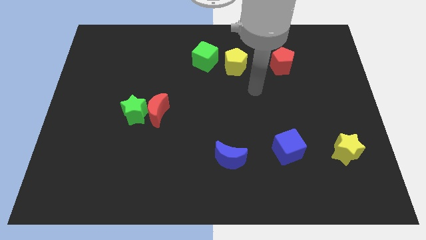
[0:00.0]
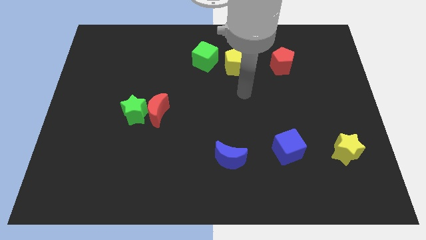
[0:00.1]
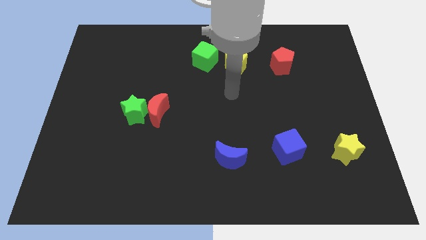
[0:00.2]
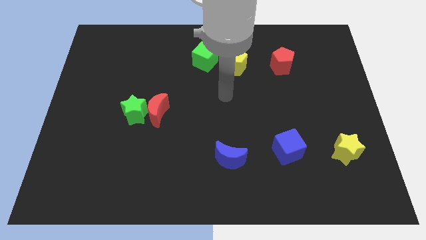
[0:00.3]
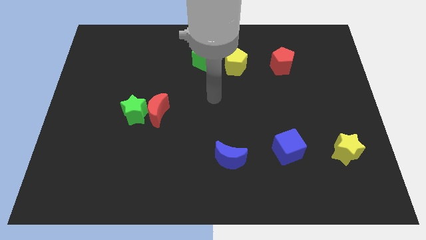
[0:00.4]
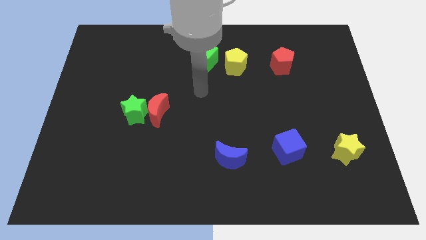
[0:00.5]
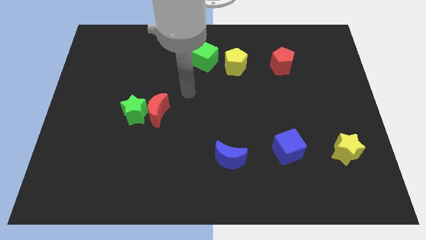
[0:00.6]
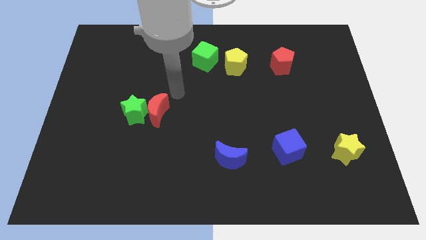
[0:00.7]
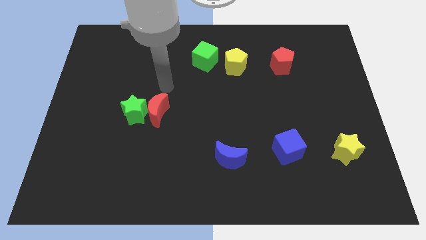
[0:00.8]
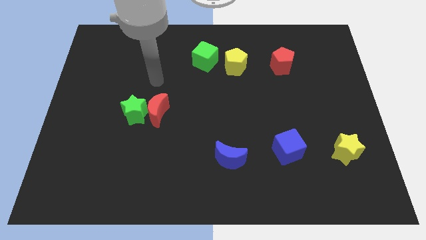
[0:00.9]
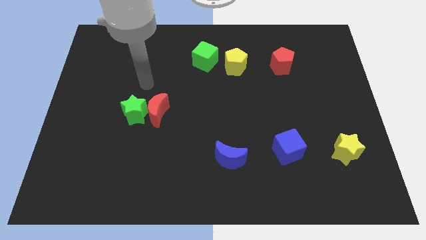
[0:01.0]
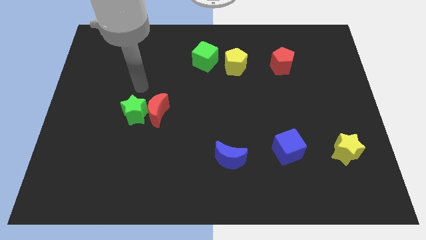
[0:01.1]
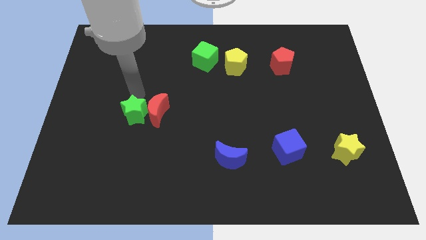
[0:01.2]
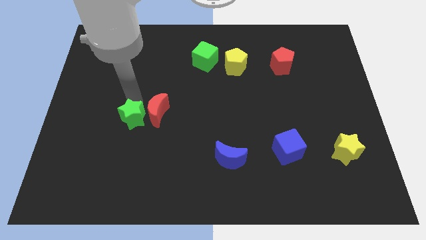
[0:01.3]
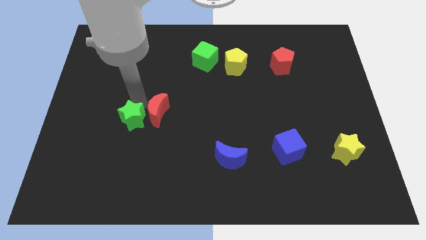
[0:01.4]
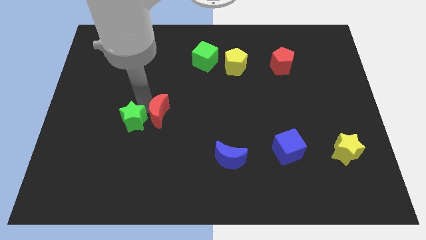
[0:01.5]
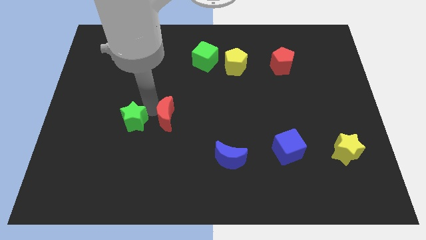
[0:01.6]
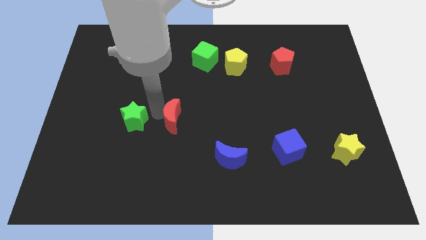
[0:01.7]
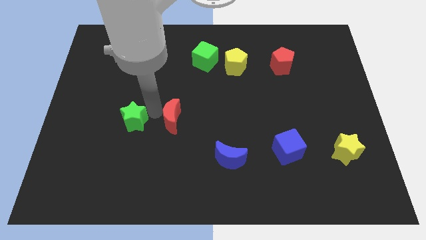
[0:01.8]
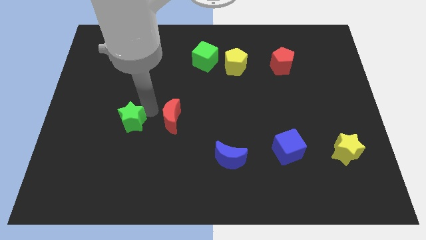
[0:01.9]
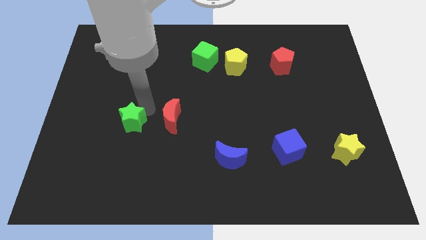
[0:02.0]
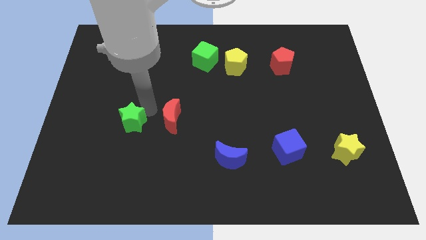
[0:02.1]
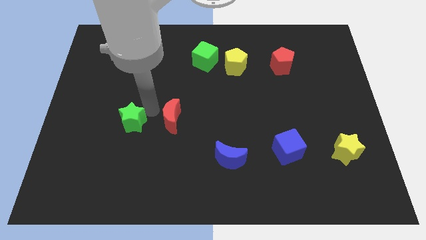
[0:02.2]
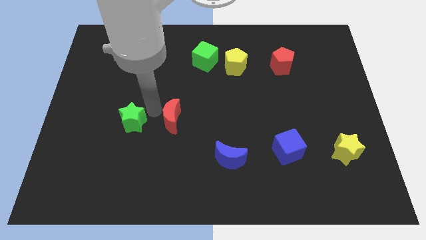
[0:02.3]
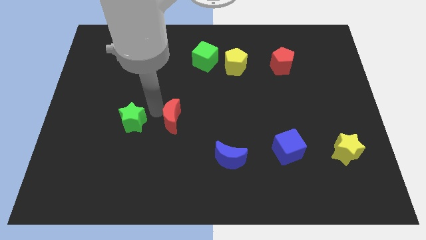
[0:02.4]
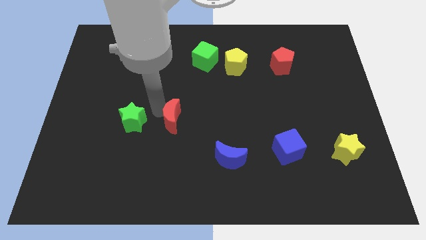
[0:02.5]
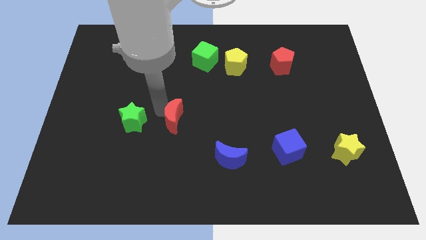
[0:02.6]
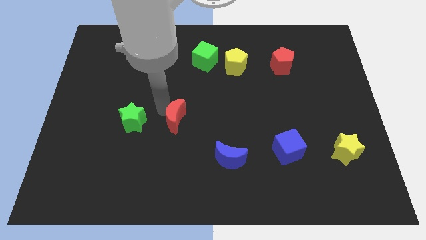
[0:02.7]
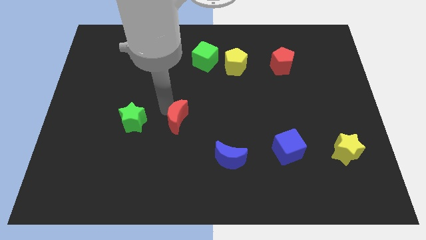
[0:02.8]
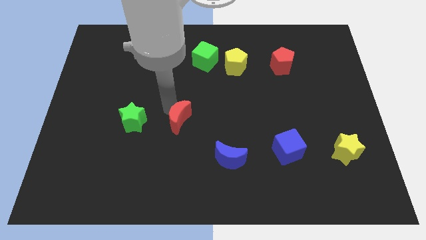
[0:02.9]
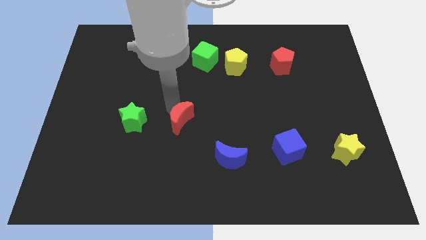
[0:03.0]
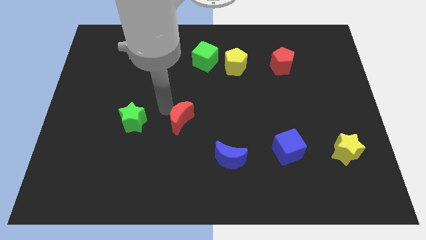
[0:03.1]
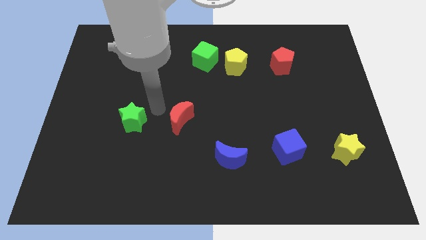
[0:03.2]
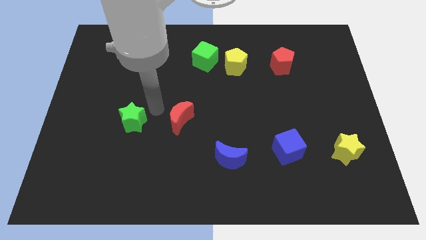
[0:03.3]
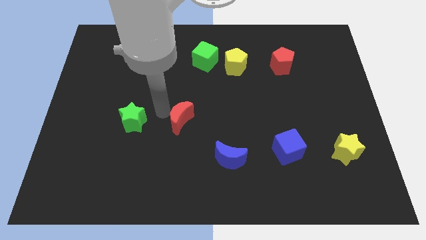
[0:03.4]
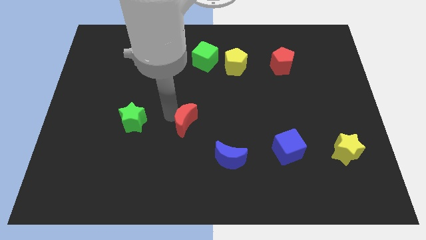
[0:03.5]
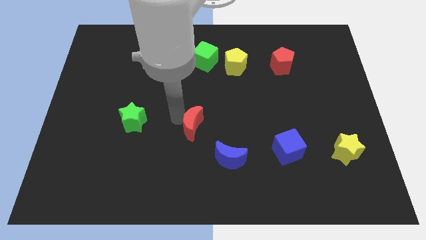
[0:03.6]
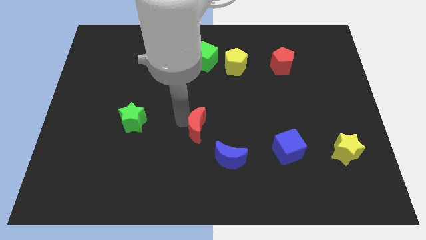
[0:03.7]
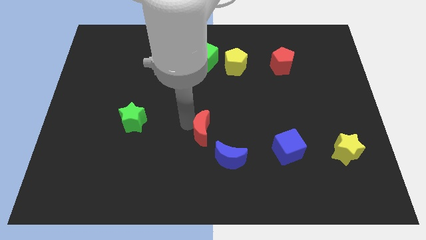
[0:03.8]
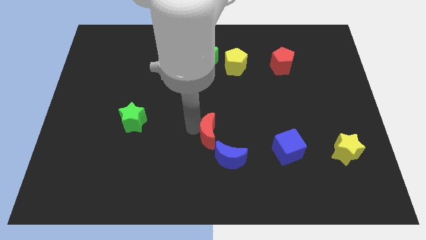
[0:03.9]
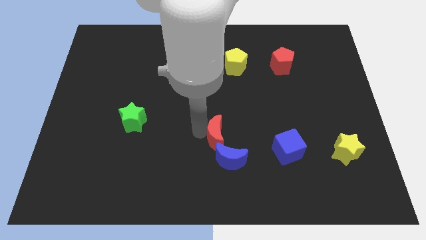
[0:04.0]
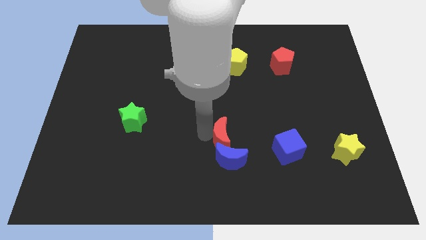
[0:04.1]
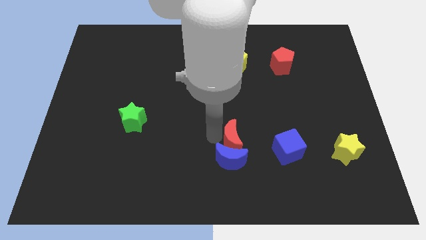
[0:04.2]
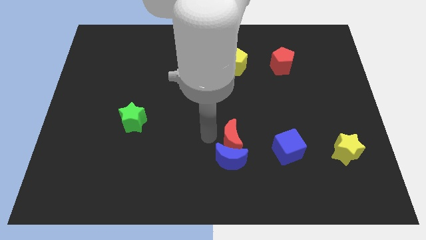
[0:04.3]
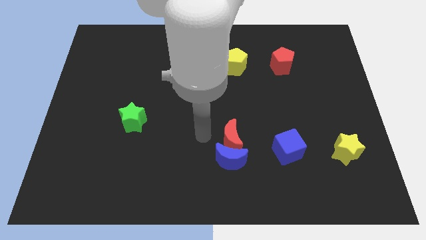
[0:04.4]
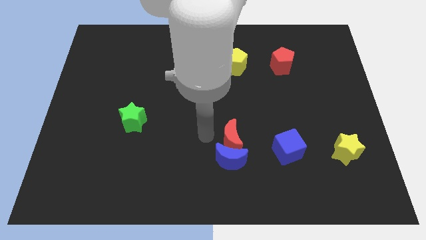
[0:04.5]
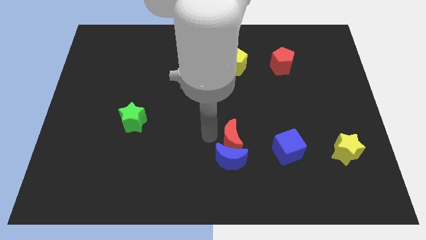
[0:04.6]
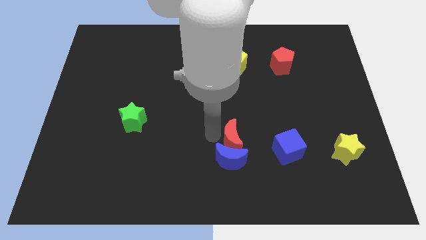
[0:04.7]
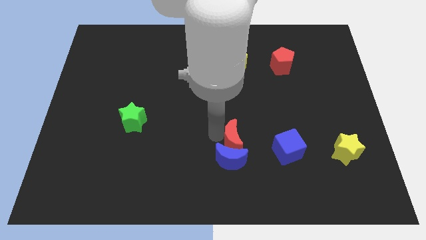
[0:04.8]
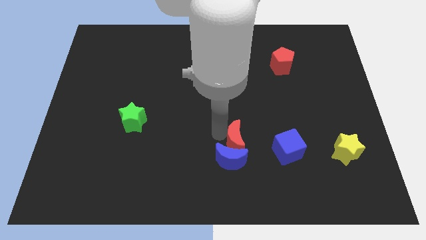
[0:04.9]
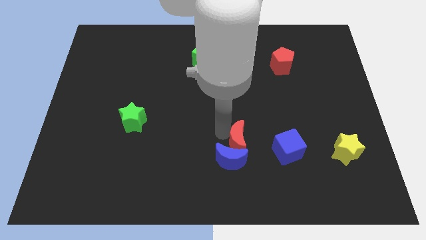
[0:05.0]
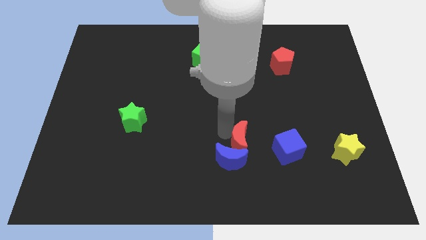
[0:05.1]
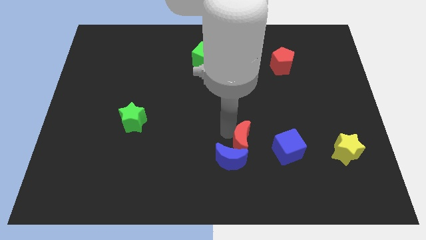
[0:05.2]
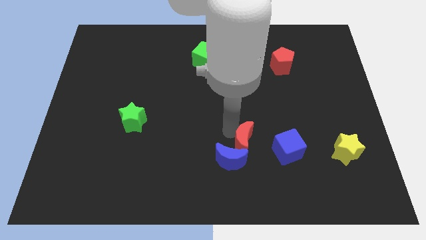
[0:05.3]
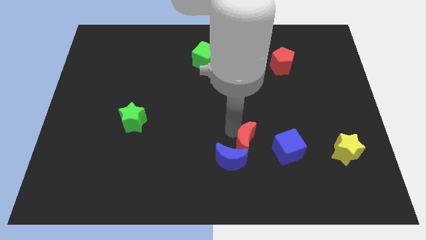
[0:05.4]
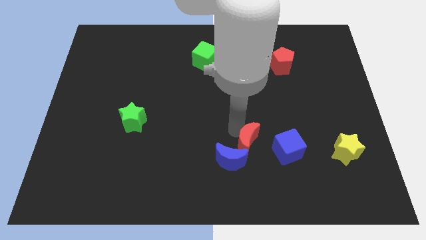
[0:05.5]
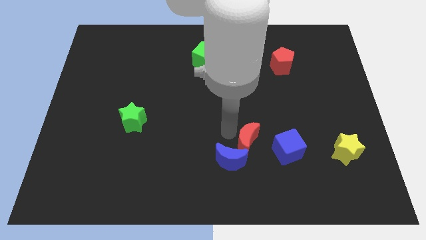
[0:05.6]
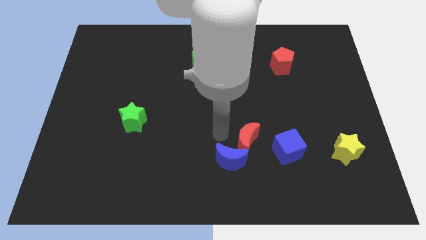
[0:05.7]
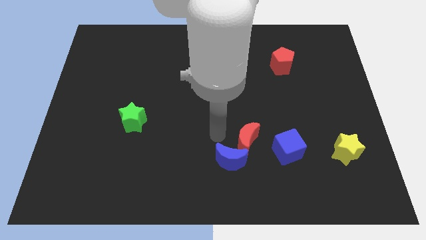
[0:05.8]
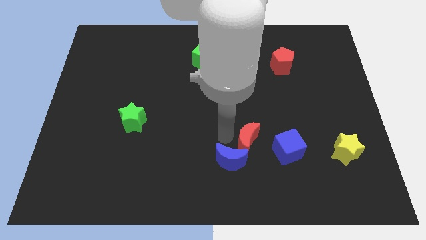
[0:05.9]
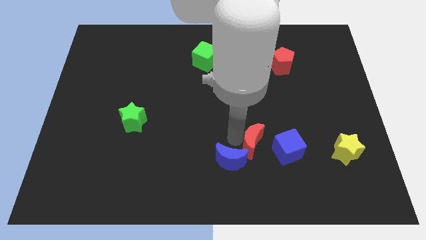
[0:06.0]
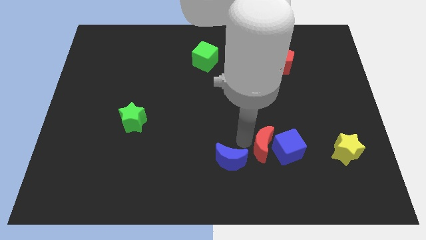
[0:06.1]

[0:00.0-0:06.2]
push the red moon next to the blue cube
